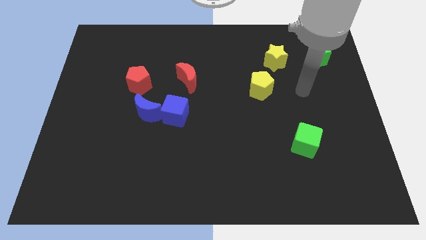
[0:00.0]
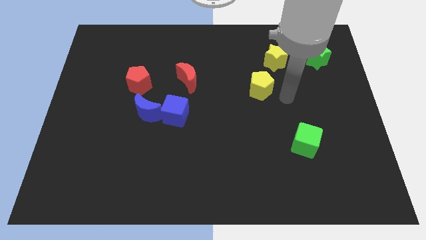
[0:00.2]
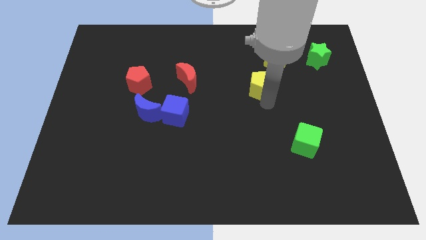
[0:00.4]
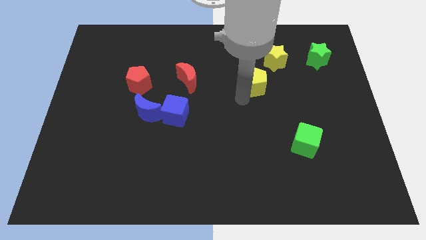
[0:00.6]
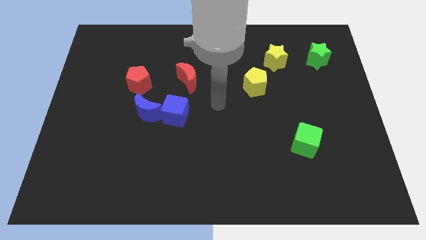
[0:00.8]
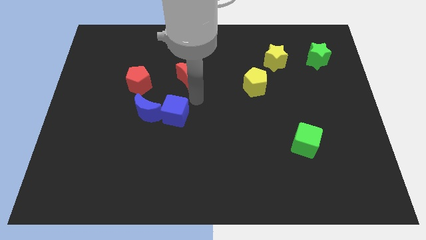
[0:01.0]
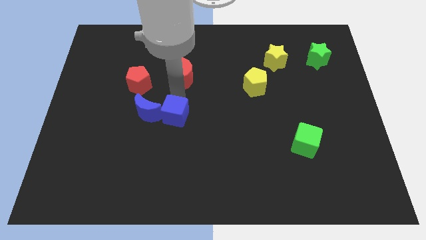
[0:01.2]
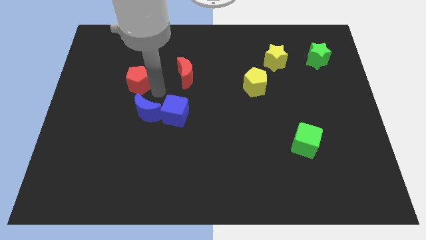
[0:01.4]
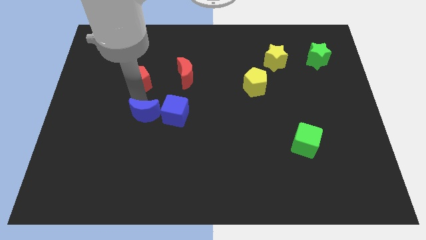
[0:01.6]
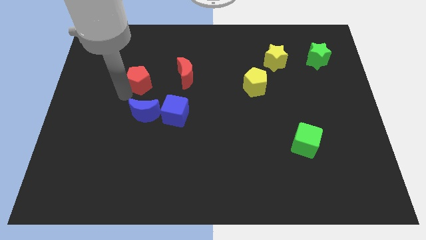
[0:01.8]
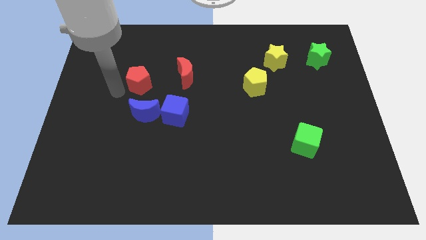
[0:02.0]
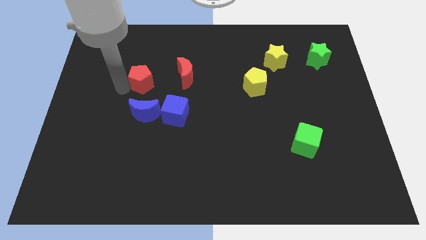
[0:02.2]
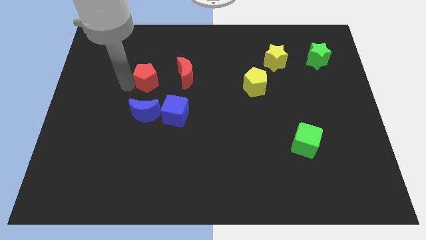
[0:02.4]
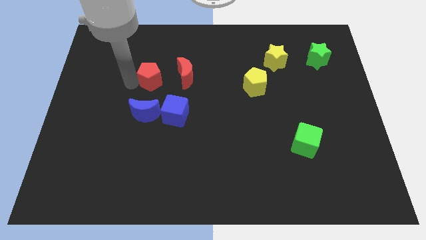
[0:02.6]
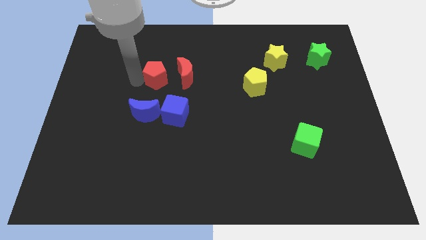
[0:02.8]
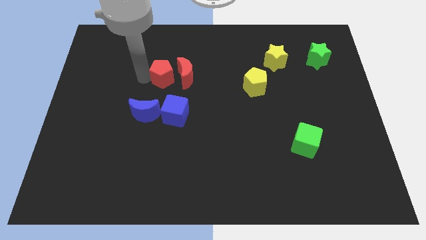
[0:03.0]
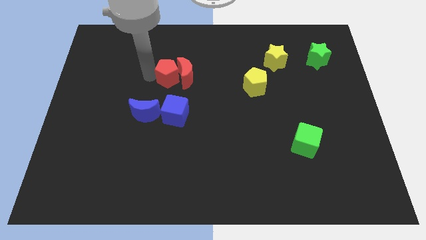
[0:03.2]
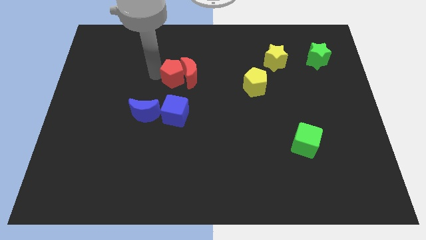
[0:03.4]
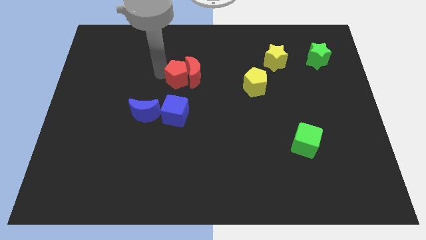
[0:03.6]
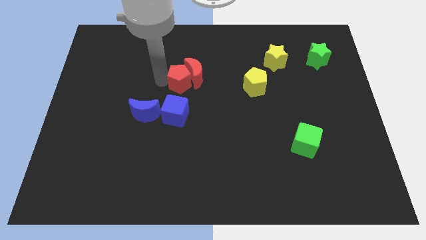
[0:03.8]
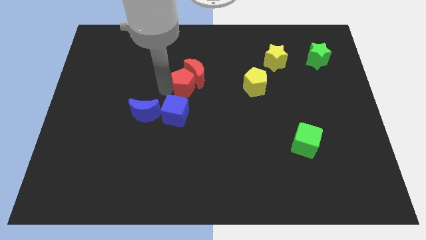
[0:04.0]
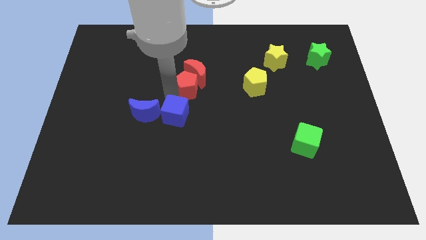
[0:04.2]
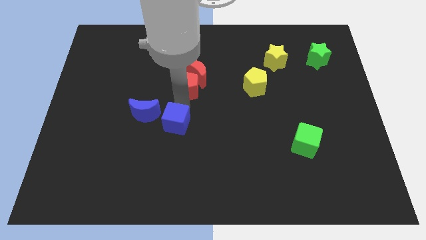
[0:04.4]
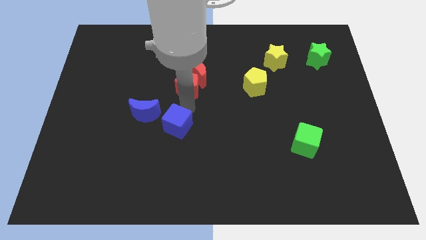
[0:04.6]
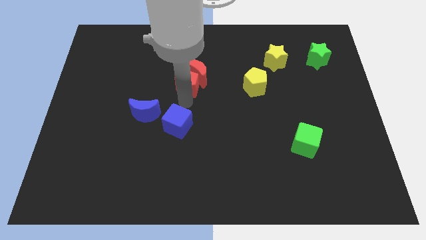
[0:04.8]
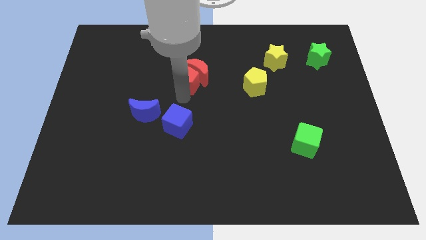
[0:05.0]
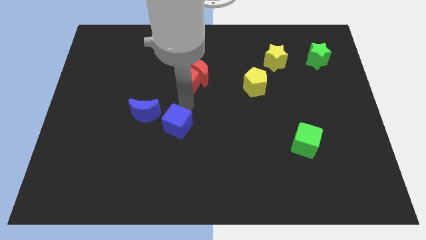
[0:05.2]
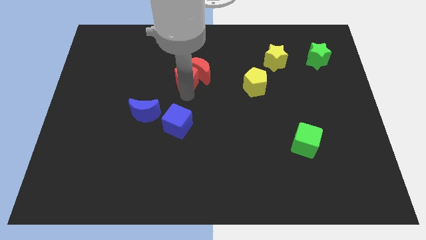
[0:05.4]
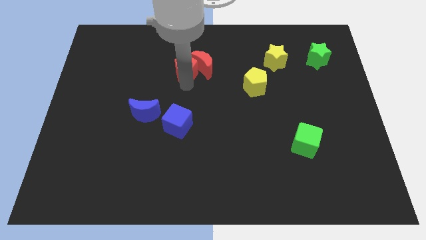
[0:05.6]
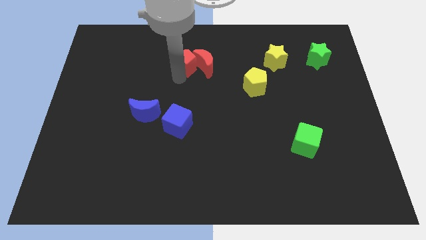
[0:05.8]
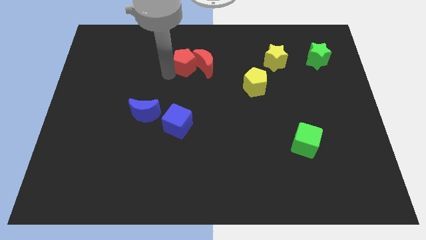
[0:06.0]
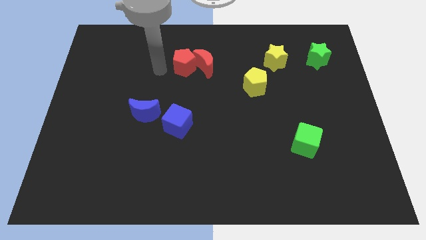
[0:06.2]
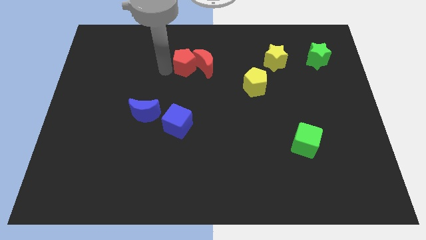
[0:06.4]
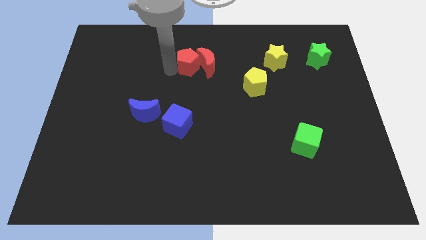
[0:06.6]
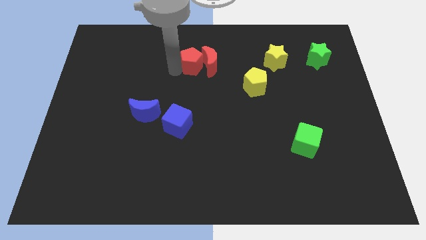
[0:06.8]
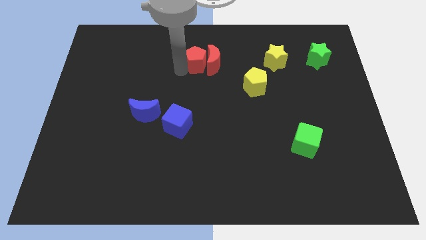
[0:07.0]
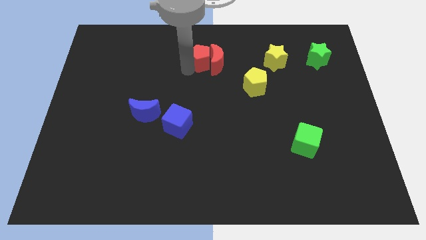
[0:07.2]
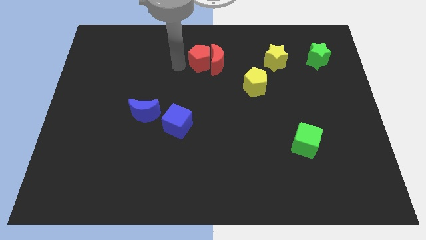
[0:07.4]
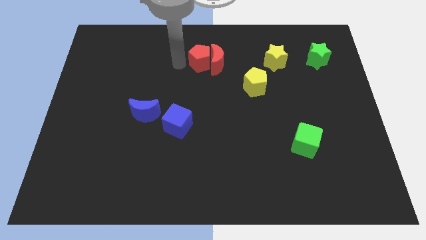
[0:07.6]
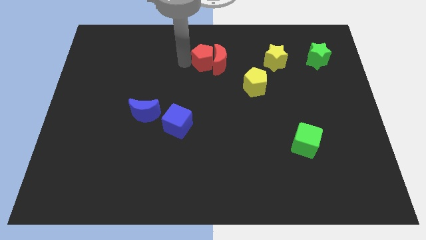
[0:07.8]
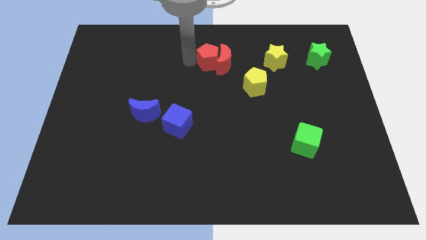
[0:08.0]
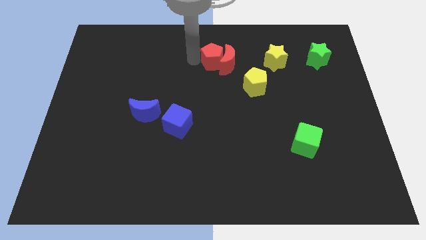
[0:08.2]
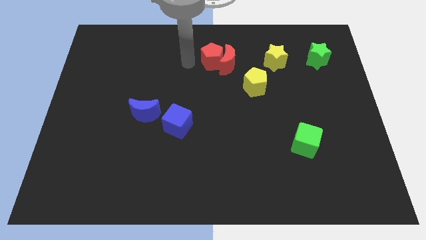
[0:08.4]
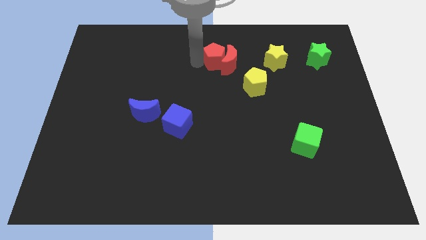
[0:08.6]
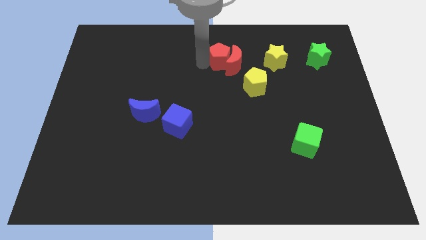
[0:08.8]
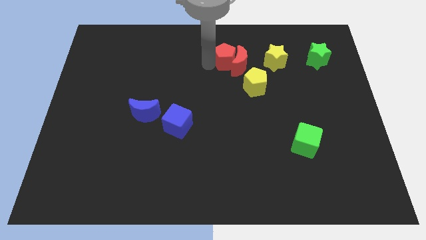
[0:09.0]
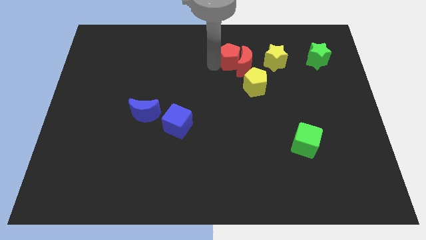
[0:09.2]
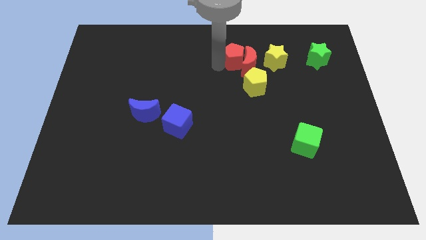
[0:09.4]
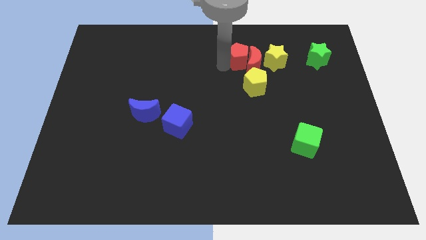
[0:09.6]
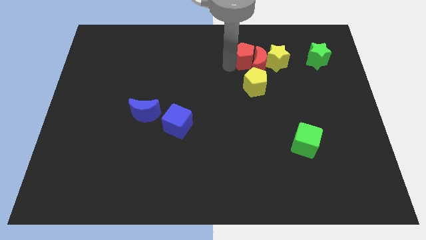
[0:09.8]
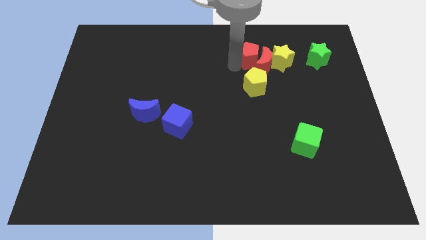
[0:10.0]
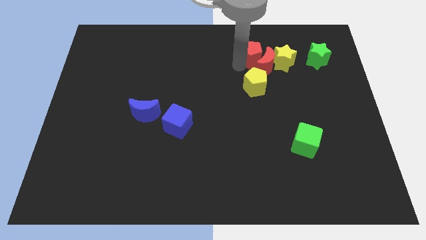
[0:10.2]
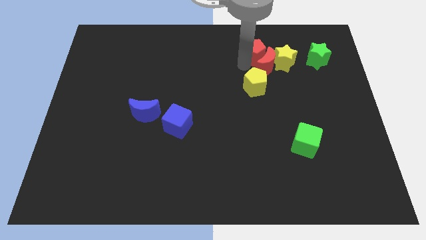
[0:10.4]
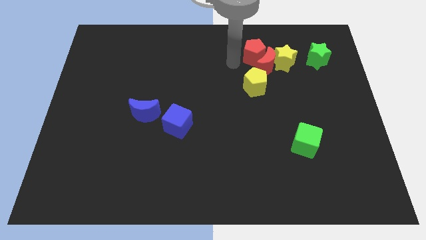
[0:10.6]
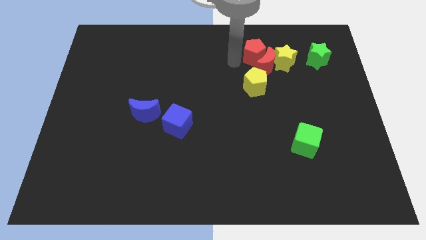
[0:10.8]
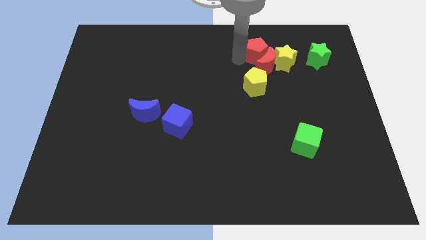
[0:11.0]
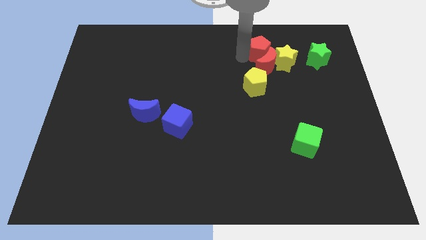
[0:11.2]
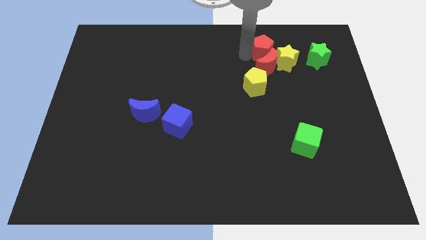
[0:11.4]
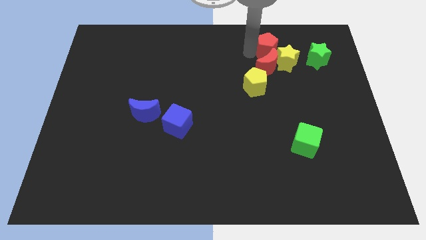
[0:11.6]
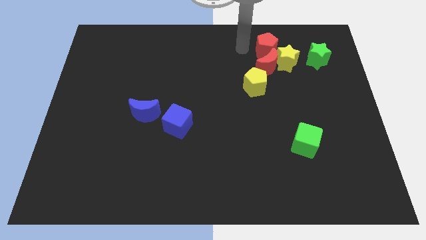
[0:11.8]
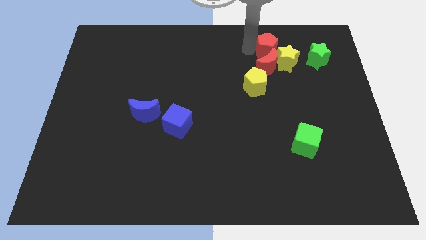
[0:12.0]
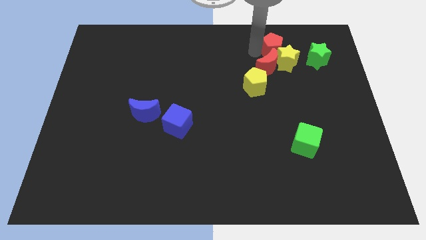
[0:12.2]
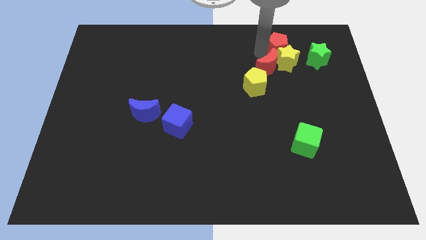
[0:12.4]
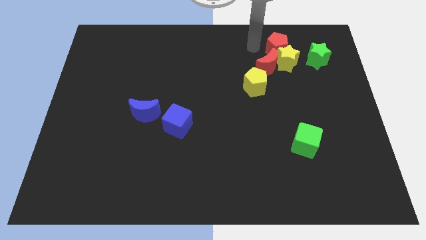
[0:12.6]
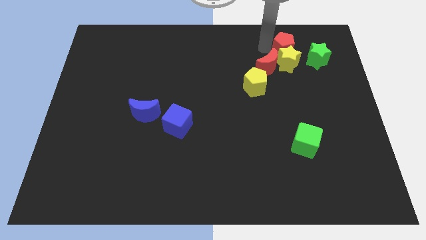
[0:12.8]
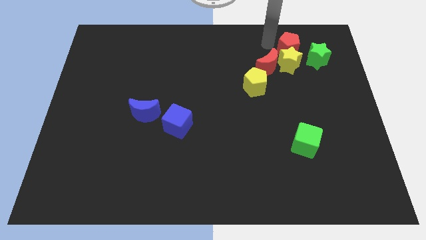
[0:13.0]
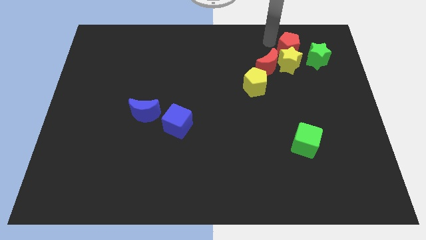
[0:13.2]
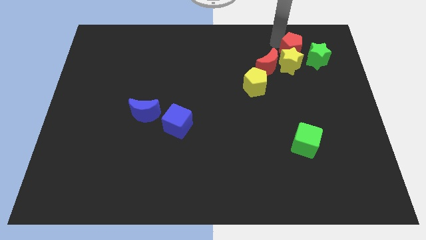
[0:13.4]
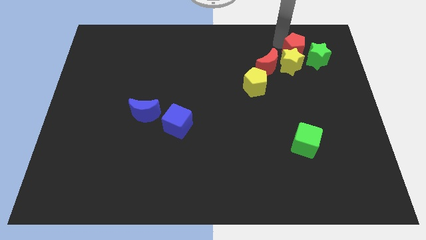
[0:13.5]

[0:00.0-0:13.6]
push the red pentagon close to the green star
